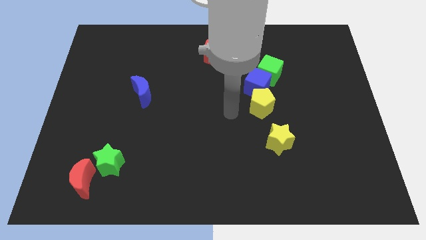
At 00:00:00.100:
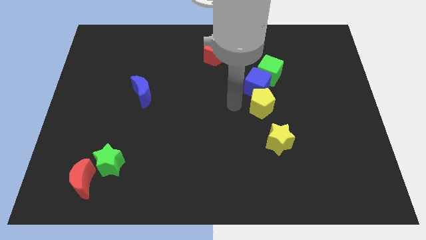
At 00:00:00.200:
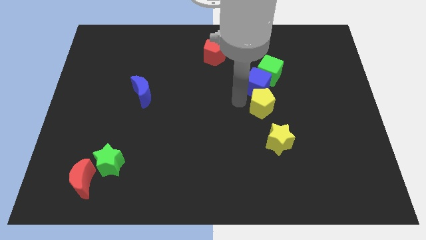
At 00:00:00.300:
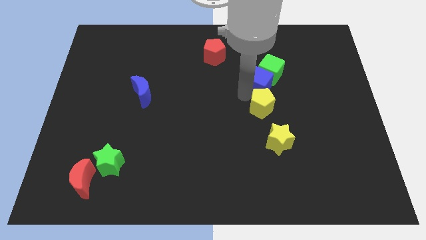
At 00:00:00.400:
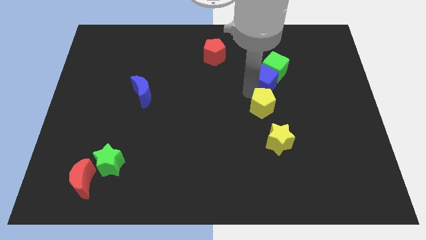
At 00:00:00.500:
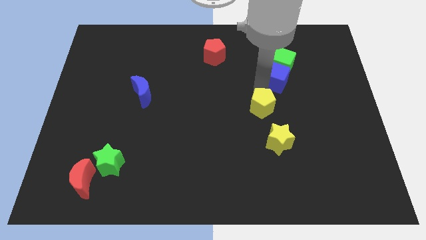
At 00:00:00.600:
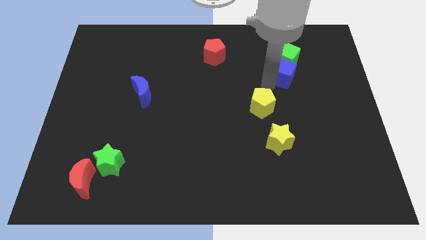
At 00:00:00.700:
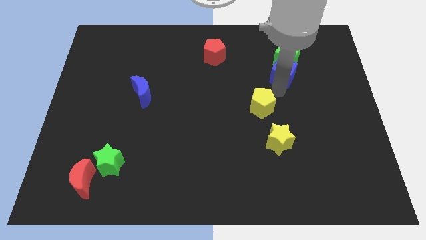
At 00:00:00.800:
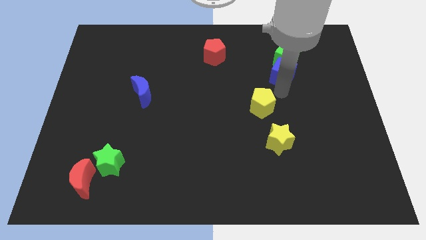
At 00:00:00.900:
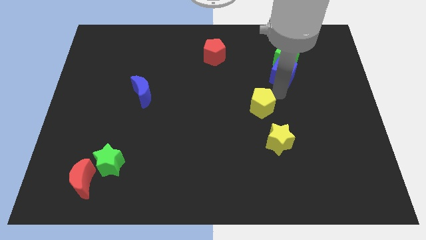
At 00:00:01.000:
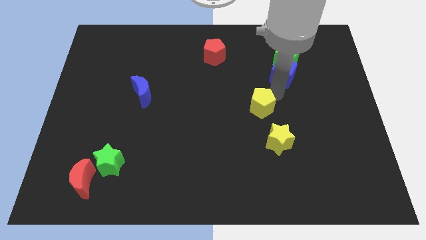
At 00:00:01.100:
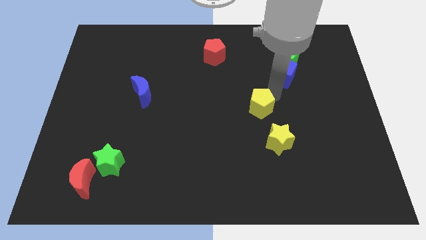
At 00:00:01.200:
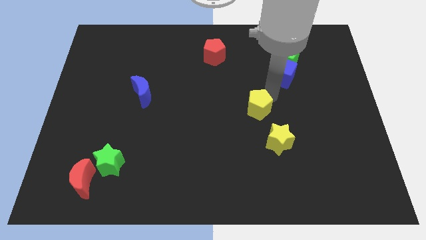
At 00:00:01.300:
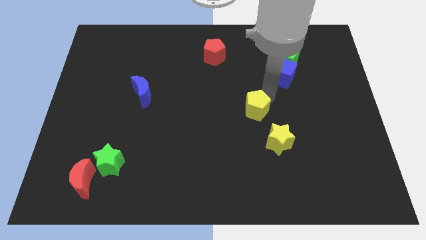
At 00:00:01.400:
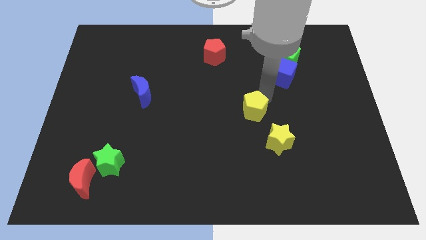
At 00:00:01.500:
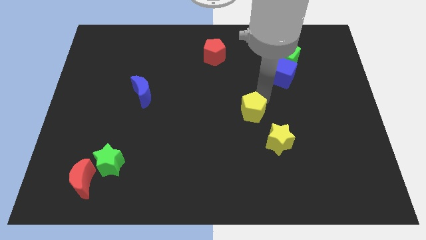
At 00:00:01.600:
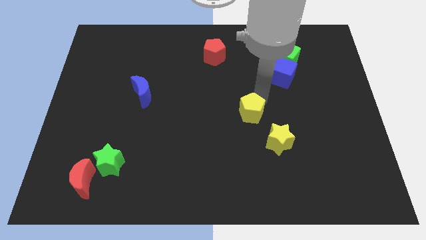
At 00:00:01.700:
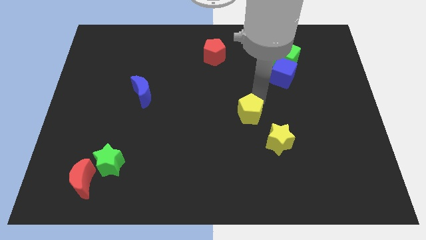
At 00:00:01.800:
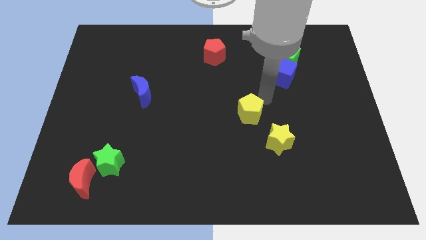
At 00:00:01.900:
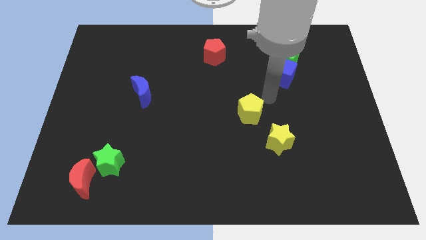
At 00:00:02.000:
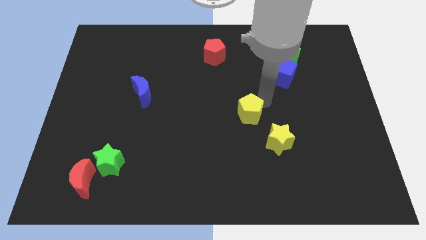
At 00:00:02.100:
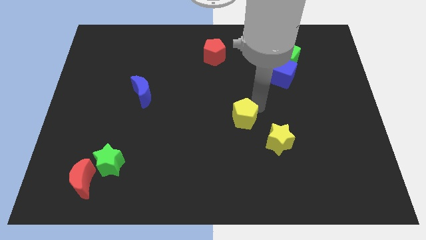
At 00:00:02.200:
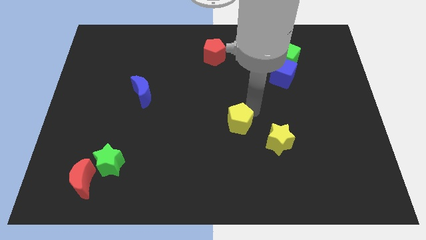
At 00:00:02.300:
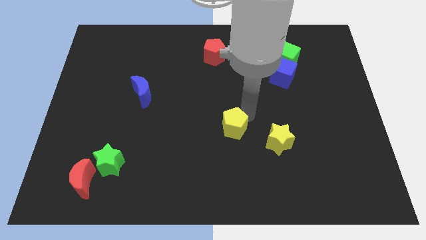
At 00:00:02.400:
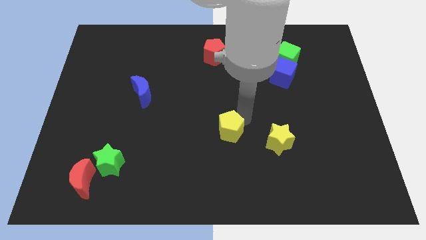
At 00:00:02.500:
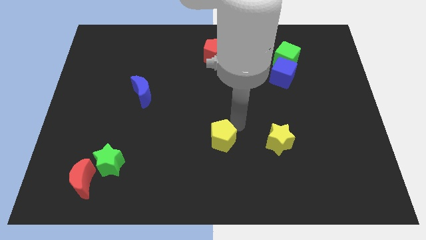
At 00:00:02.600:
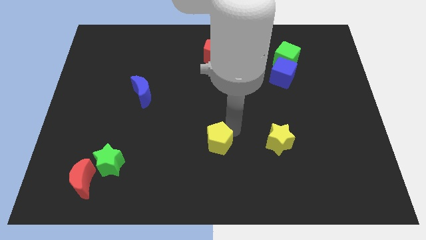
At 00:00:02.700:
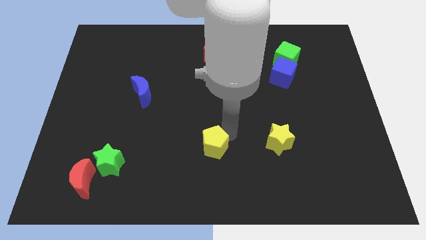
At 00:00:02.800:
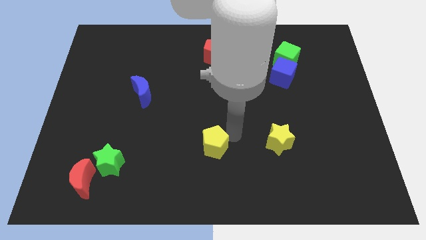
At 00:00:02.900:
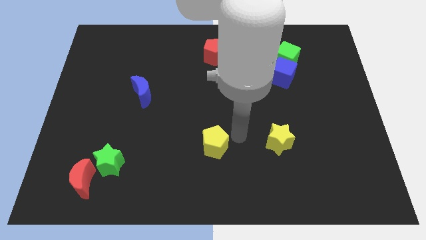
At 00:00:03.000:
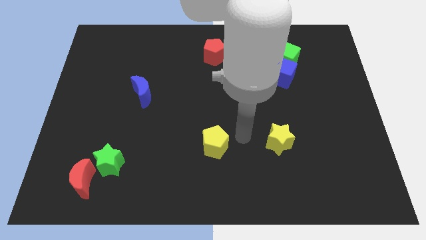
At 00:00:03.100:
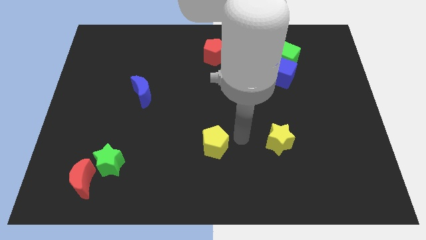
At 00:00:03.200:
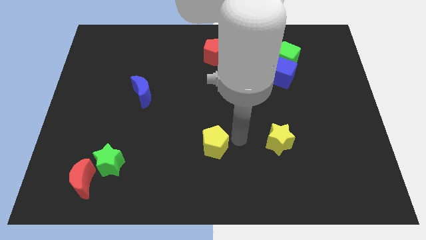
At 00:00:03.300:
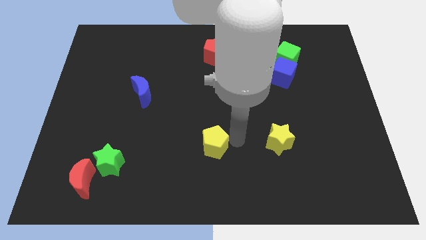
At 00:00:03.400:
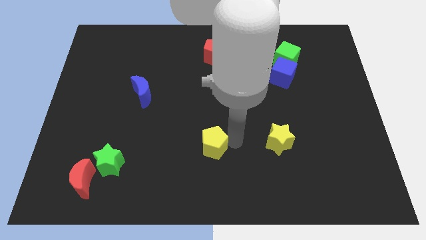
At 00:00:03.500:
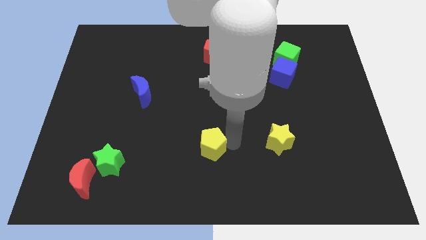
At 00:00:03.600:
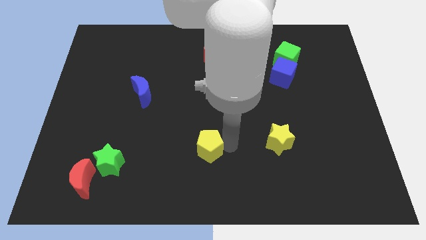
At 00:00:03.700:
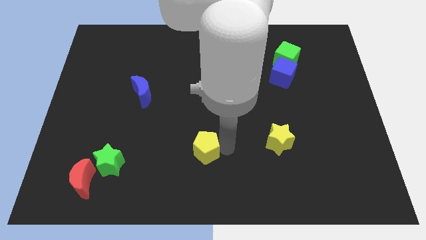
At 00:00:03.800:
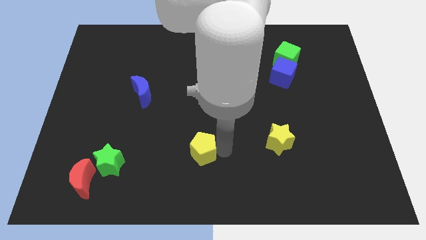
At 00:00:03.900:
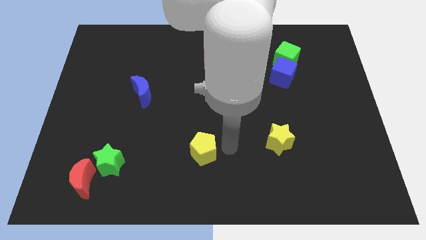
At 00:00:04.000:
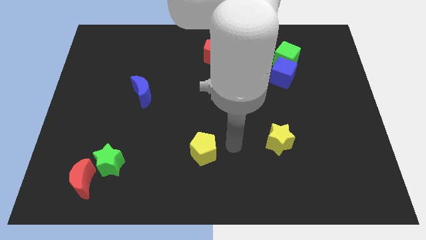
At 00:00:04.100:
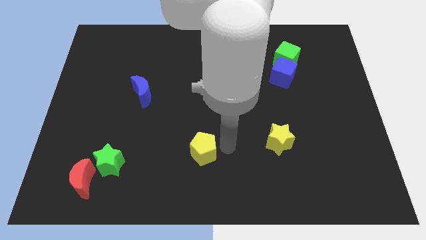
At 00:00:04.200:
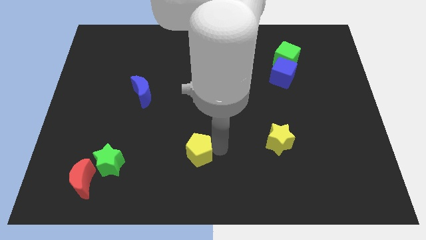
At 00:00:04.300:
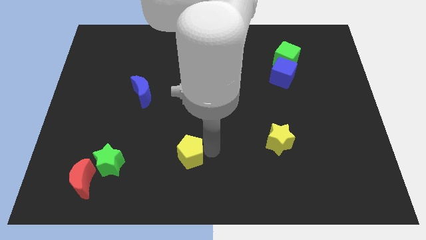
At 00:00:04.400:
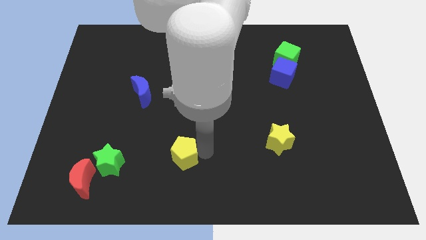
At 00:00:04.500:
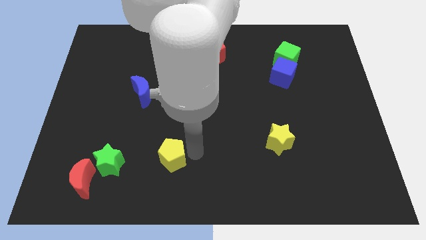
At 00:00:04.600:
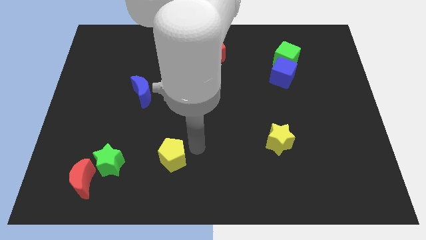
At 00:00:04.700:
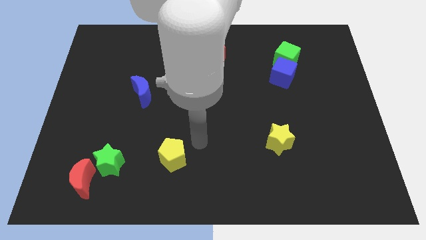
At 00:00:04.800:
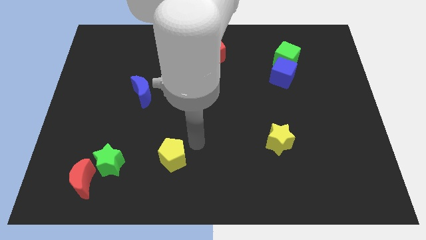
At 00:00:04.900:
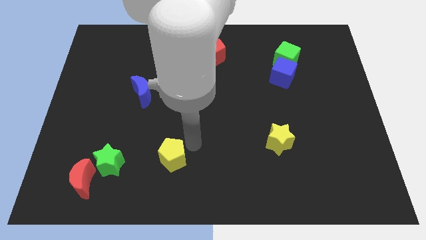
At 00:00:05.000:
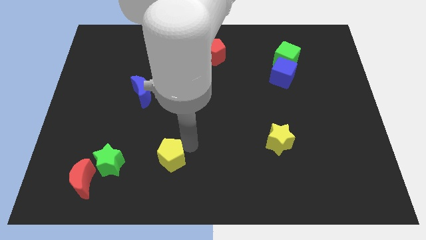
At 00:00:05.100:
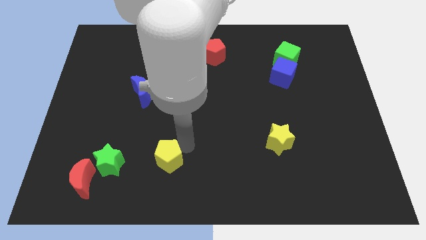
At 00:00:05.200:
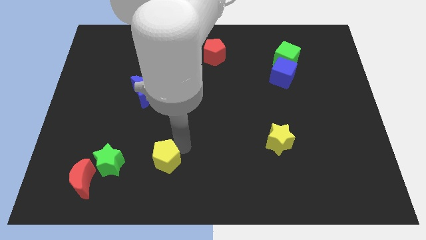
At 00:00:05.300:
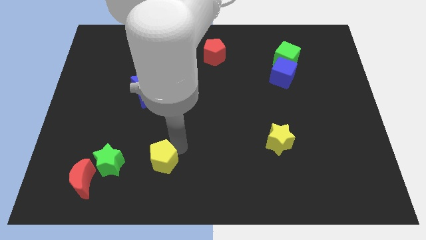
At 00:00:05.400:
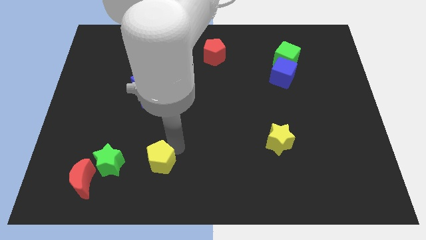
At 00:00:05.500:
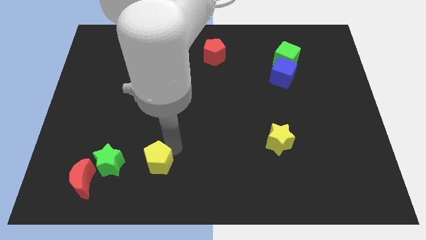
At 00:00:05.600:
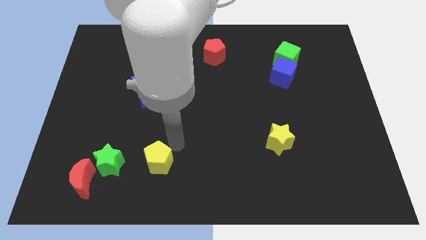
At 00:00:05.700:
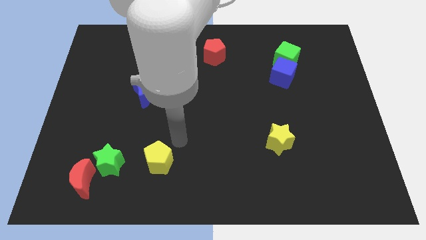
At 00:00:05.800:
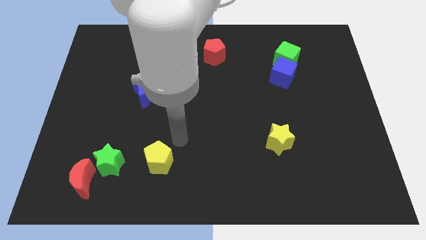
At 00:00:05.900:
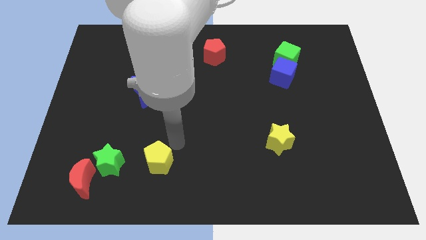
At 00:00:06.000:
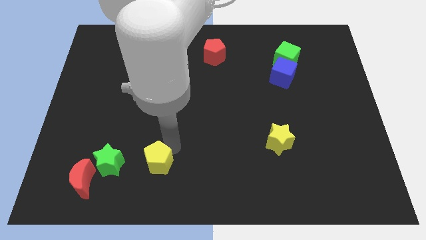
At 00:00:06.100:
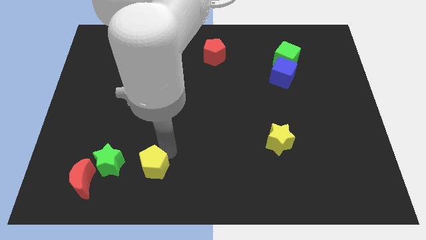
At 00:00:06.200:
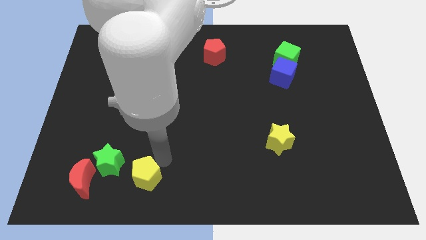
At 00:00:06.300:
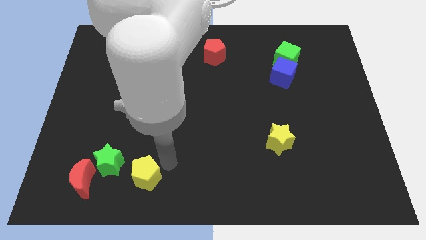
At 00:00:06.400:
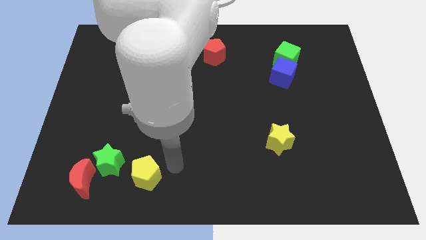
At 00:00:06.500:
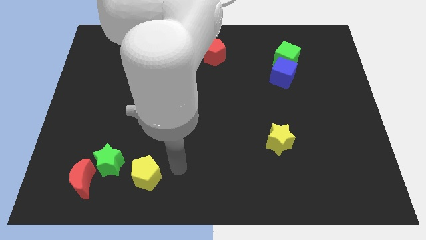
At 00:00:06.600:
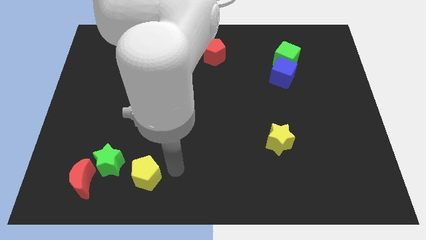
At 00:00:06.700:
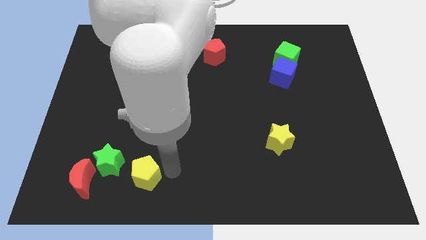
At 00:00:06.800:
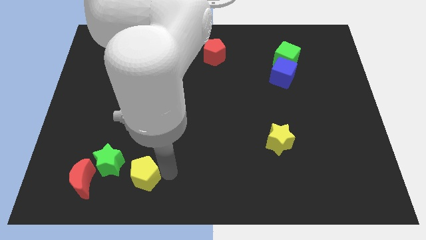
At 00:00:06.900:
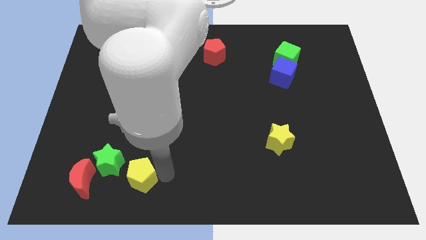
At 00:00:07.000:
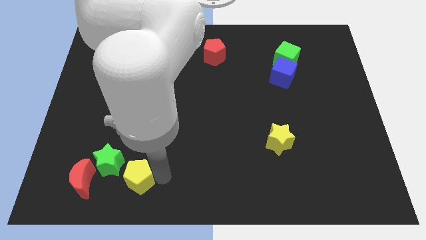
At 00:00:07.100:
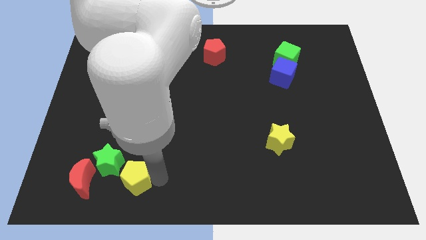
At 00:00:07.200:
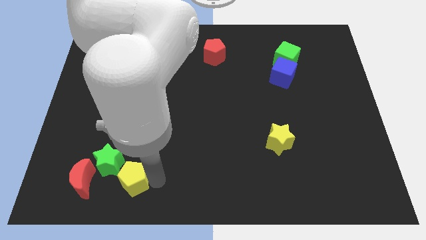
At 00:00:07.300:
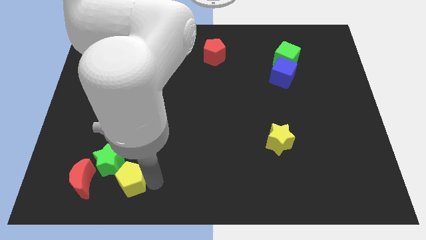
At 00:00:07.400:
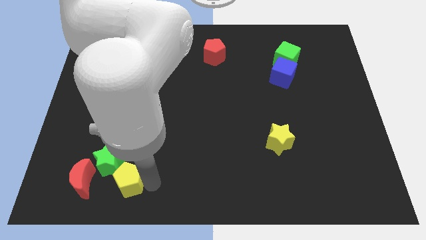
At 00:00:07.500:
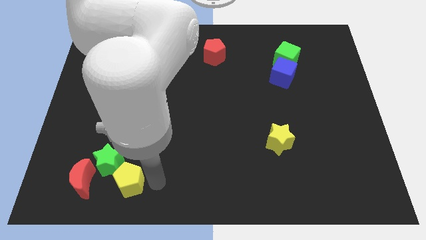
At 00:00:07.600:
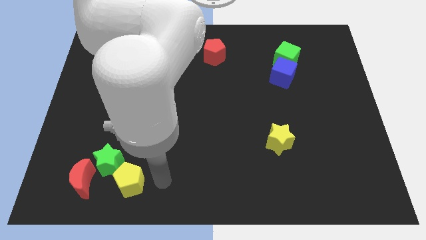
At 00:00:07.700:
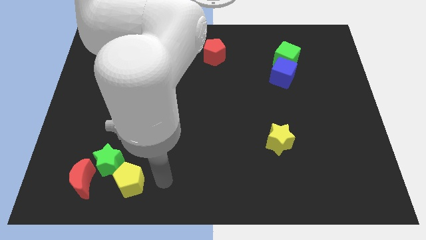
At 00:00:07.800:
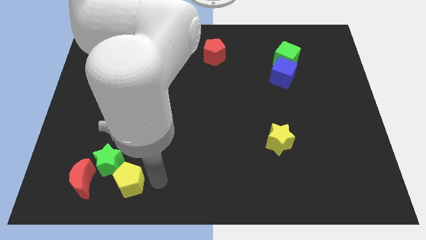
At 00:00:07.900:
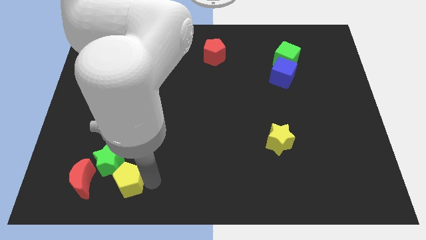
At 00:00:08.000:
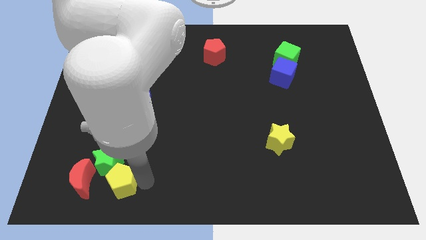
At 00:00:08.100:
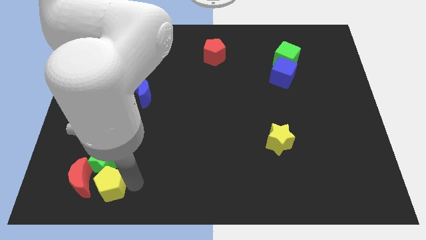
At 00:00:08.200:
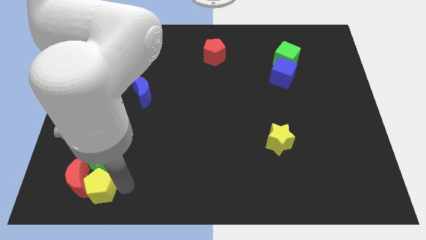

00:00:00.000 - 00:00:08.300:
slide the yellow pentagon next to the red moon
